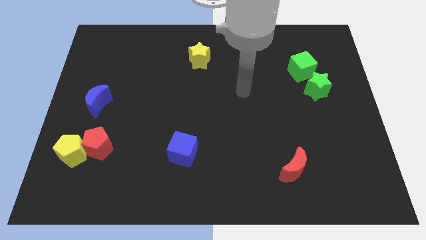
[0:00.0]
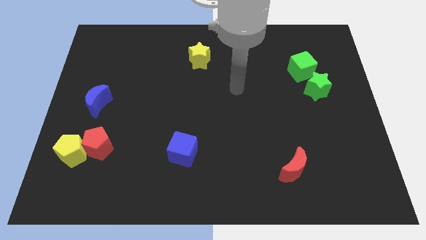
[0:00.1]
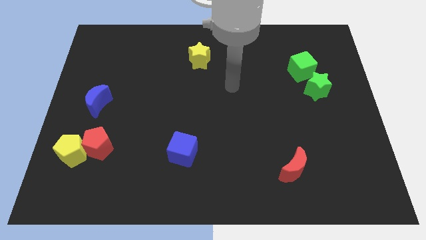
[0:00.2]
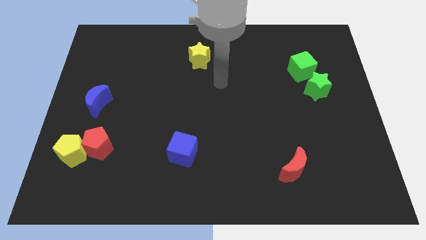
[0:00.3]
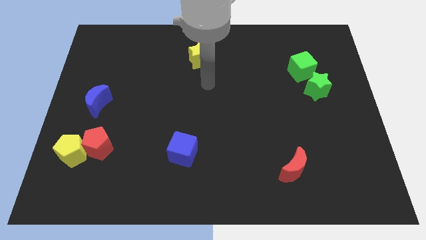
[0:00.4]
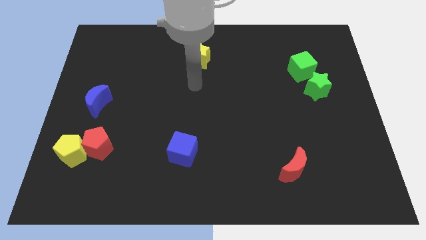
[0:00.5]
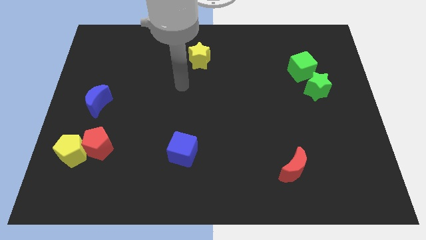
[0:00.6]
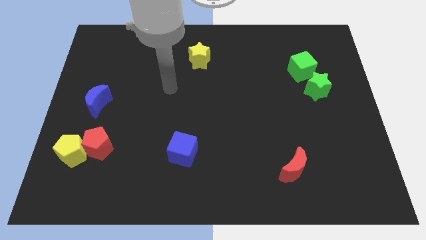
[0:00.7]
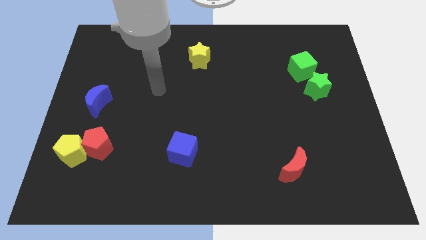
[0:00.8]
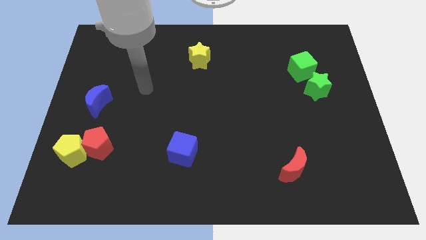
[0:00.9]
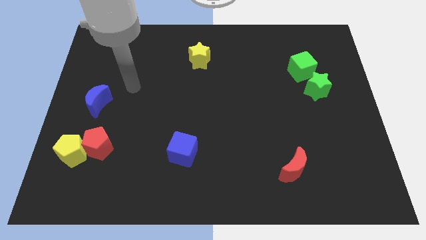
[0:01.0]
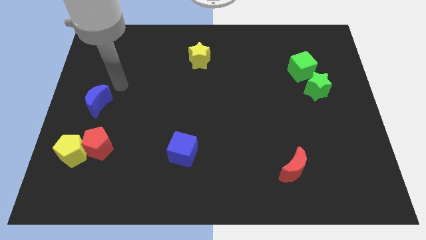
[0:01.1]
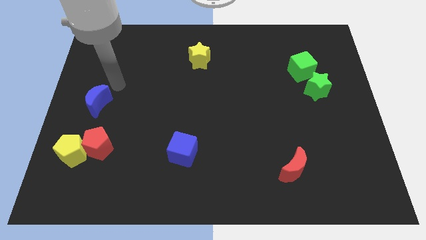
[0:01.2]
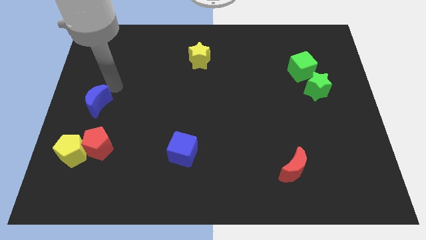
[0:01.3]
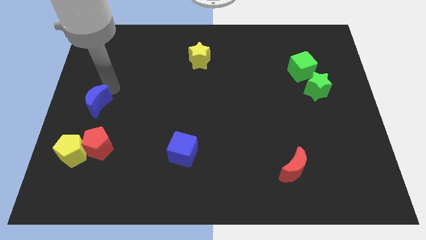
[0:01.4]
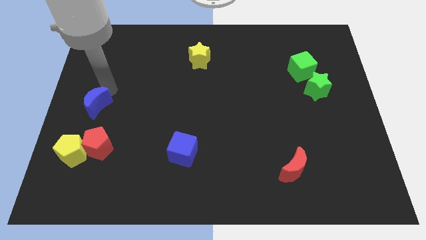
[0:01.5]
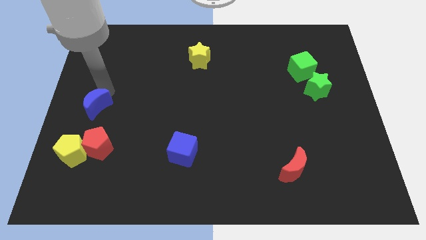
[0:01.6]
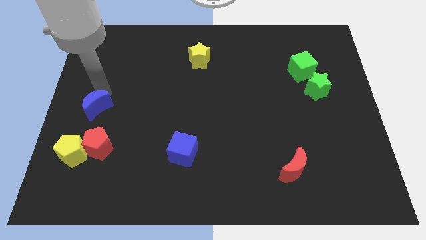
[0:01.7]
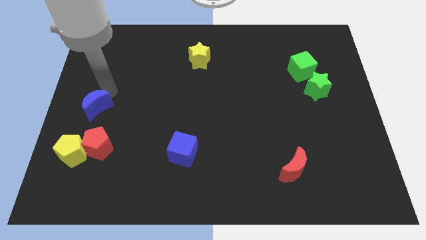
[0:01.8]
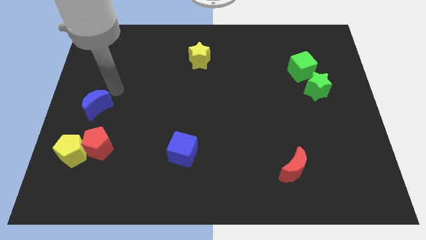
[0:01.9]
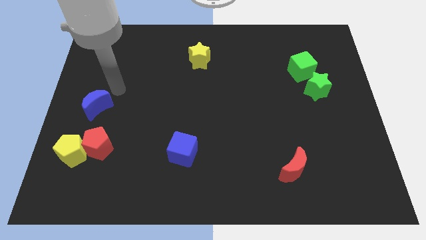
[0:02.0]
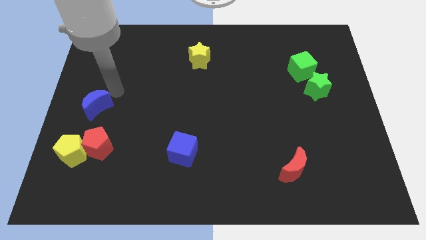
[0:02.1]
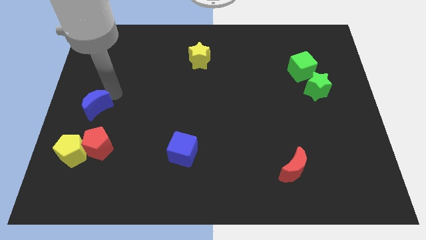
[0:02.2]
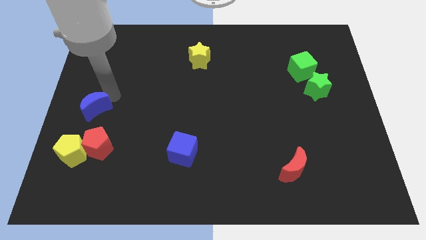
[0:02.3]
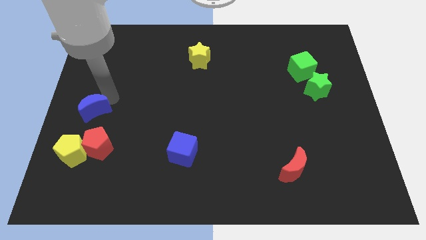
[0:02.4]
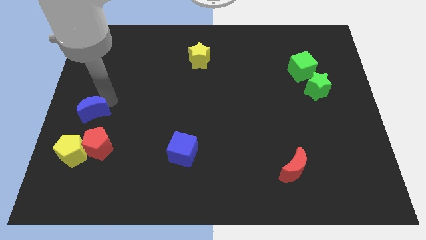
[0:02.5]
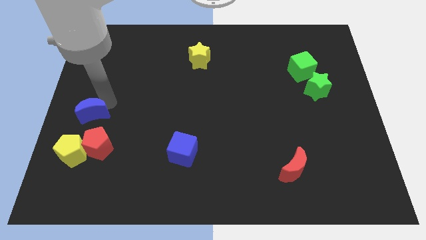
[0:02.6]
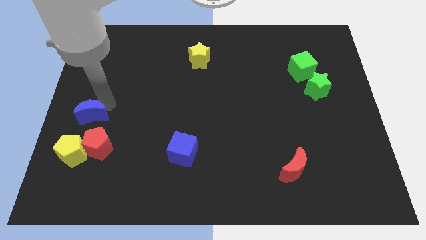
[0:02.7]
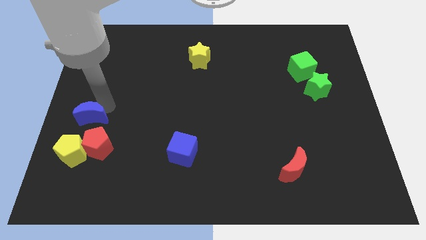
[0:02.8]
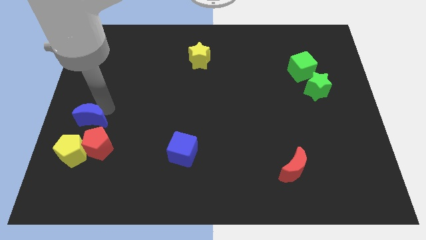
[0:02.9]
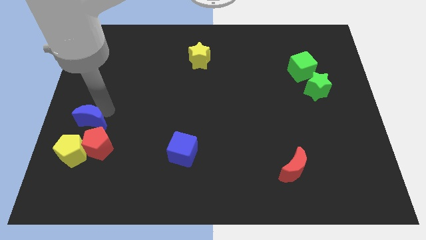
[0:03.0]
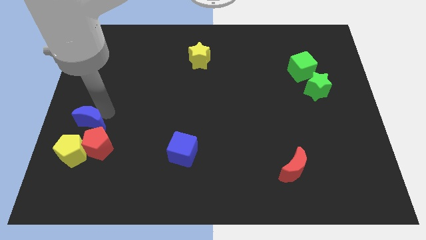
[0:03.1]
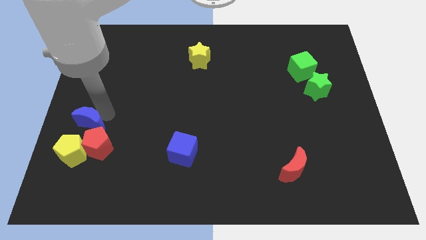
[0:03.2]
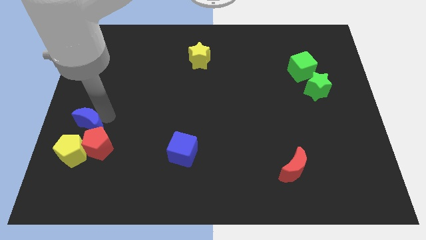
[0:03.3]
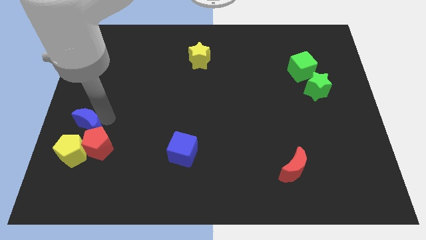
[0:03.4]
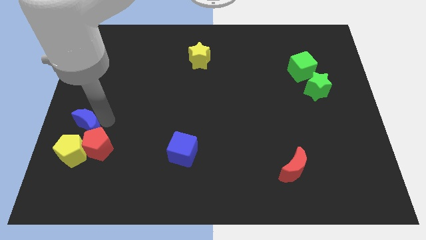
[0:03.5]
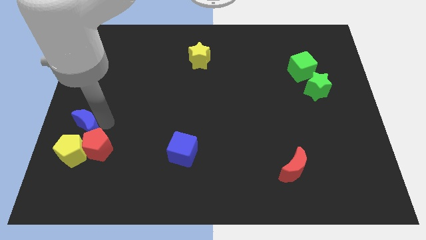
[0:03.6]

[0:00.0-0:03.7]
slide the blue moon downwards a little

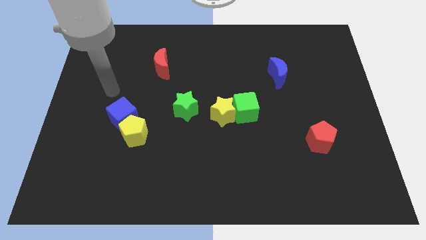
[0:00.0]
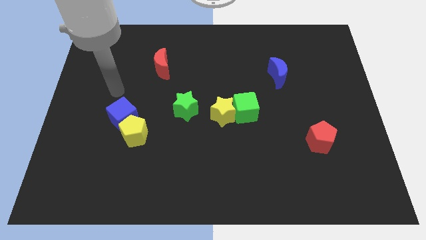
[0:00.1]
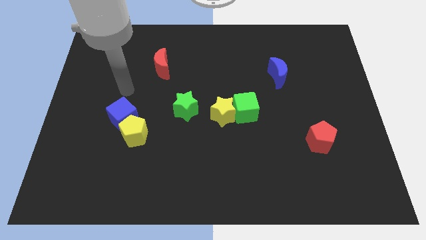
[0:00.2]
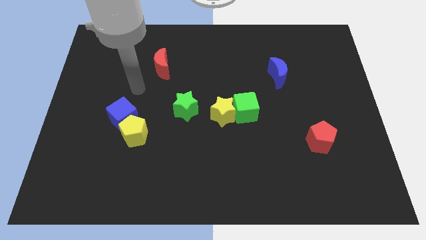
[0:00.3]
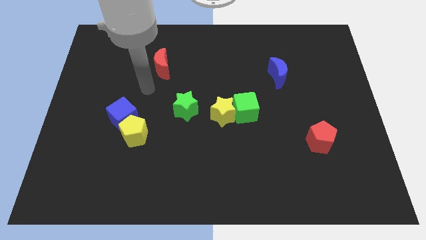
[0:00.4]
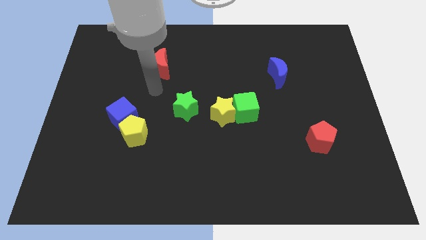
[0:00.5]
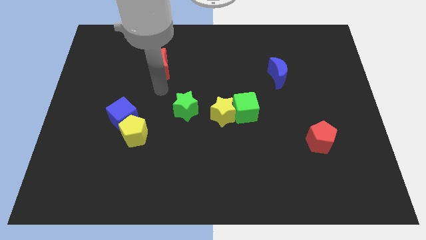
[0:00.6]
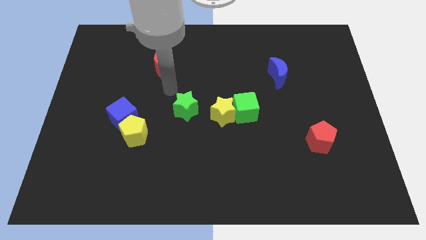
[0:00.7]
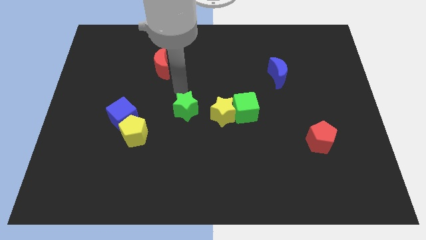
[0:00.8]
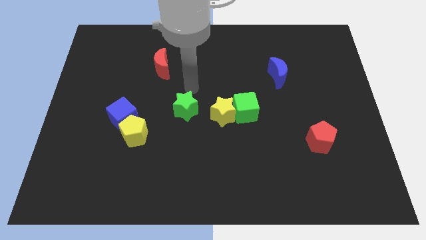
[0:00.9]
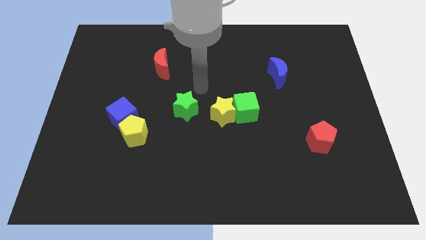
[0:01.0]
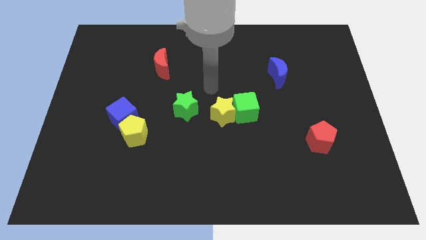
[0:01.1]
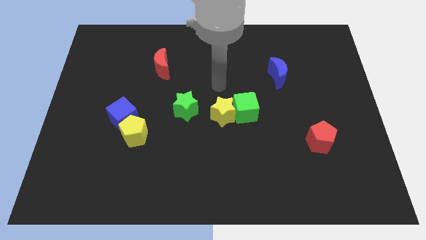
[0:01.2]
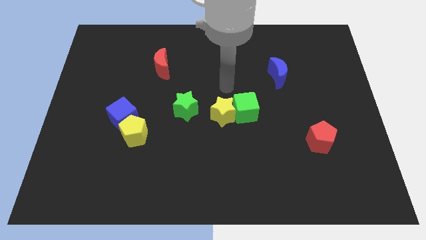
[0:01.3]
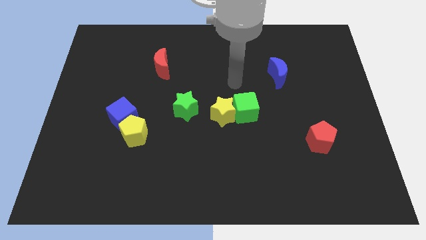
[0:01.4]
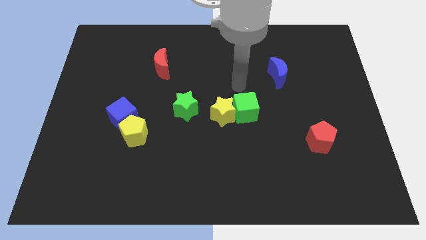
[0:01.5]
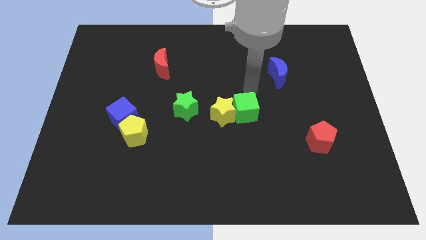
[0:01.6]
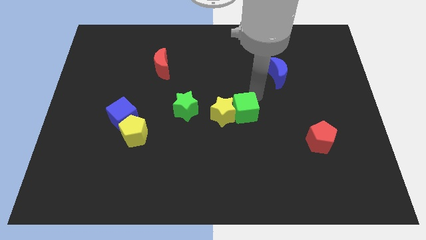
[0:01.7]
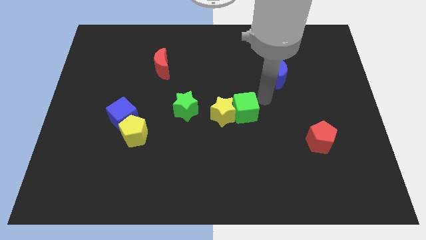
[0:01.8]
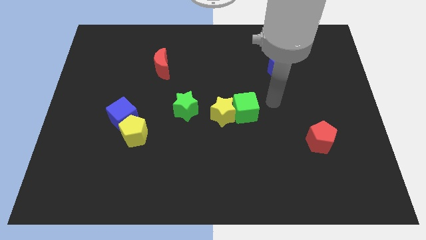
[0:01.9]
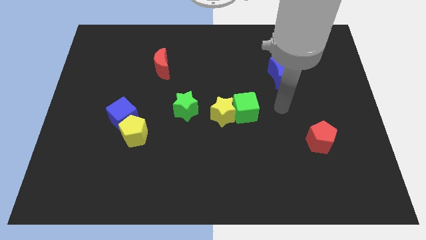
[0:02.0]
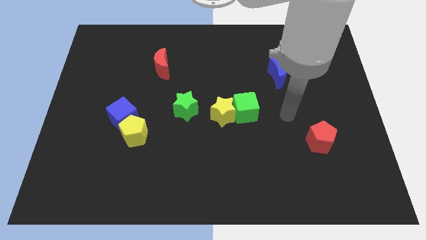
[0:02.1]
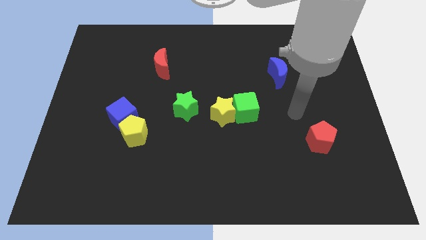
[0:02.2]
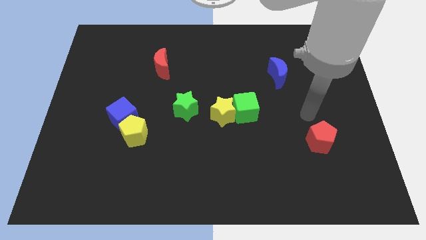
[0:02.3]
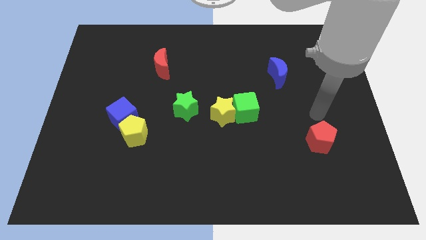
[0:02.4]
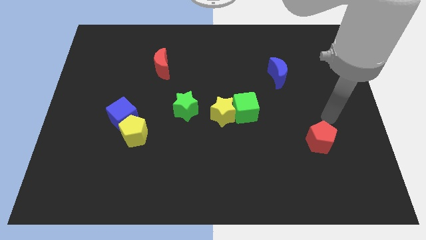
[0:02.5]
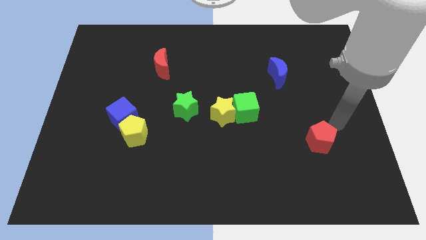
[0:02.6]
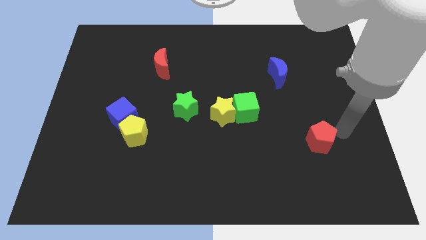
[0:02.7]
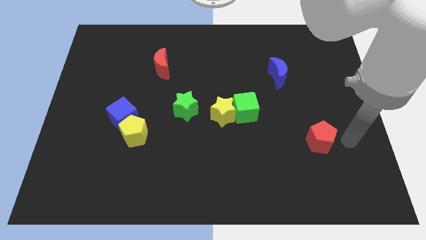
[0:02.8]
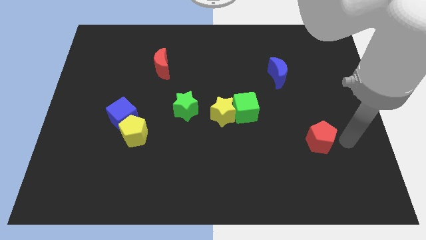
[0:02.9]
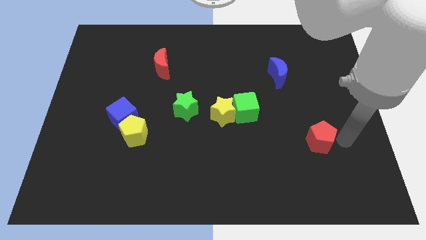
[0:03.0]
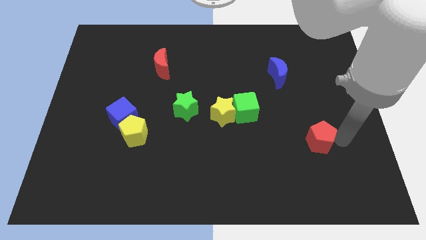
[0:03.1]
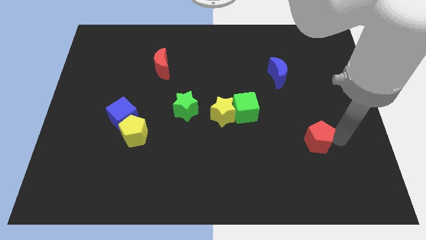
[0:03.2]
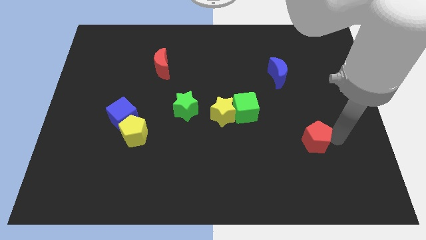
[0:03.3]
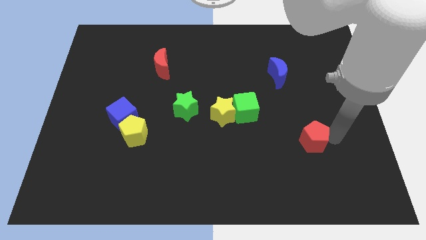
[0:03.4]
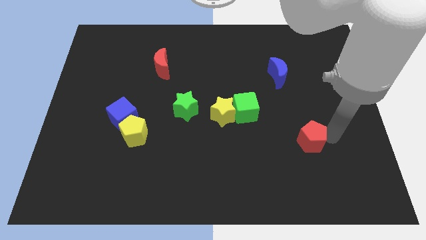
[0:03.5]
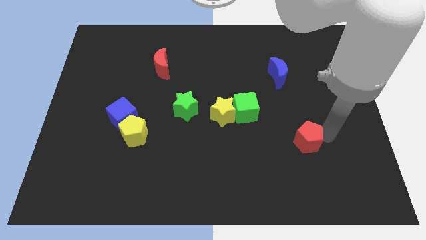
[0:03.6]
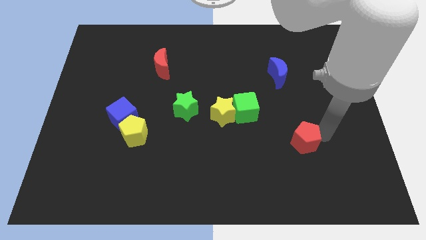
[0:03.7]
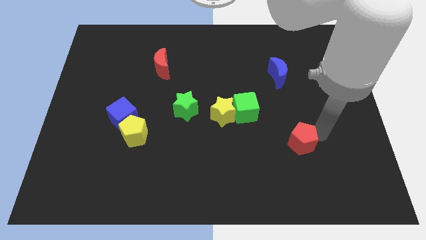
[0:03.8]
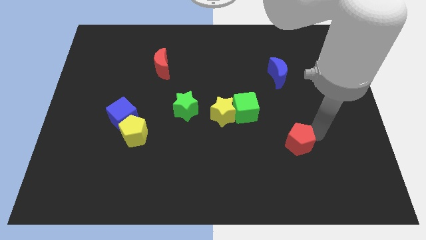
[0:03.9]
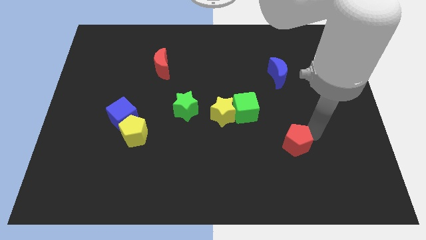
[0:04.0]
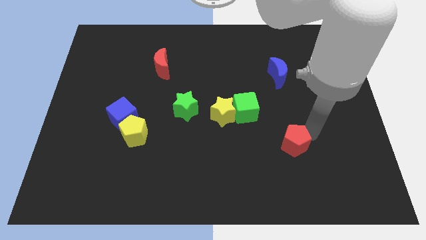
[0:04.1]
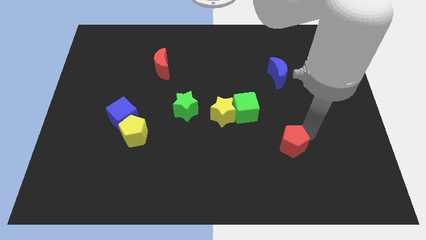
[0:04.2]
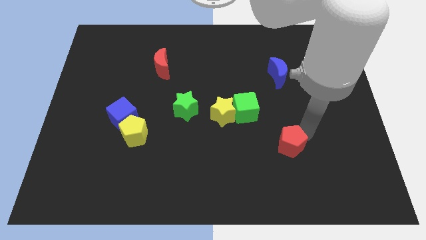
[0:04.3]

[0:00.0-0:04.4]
slightly move the red pentagon to the left
